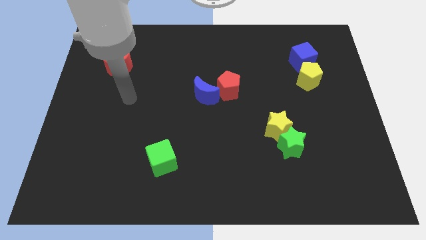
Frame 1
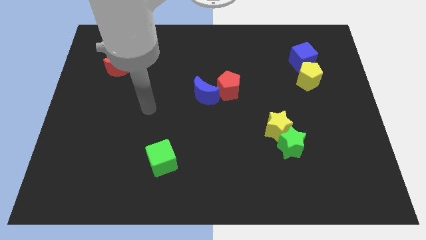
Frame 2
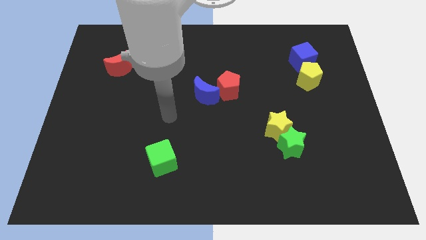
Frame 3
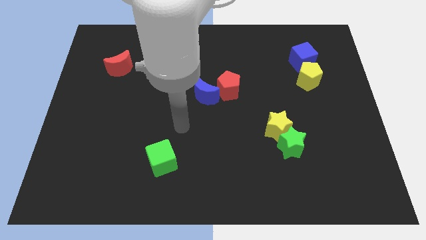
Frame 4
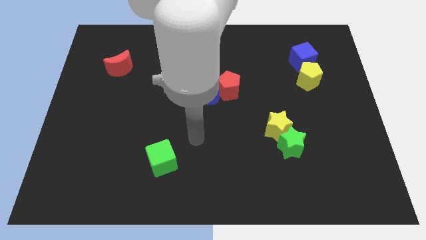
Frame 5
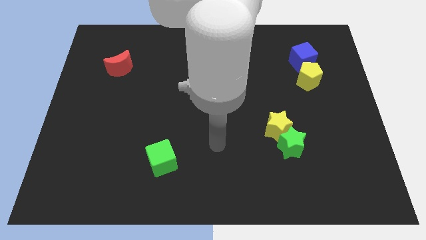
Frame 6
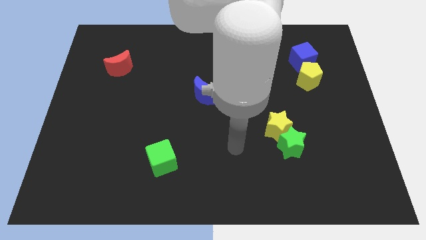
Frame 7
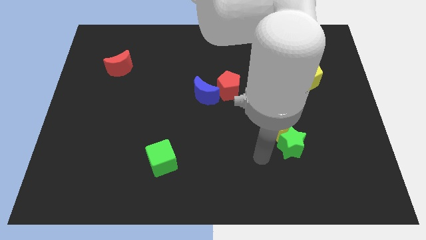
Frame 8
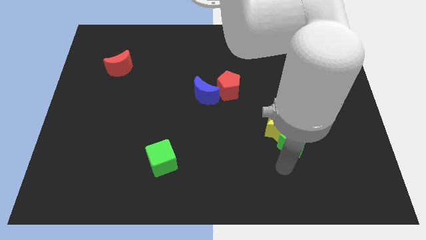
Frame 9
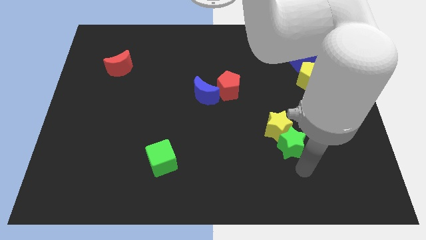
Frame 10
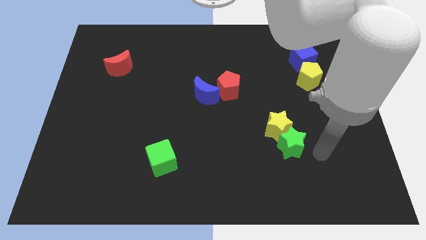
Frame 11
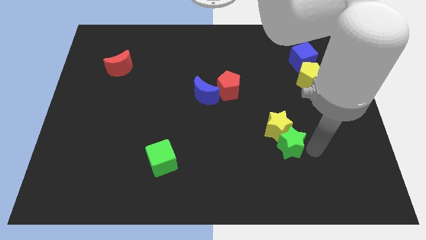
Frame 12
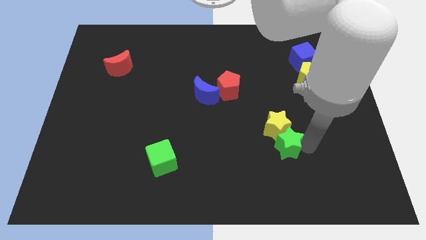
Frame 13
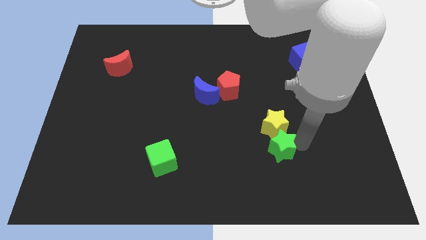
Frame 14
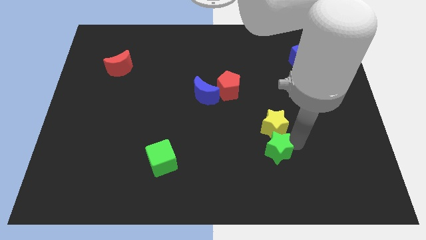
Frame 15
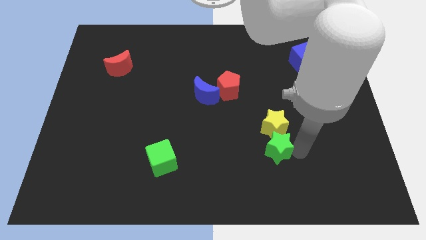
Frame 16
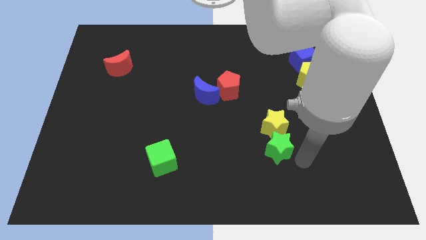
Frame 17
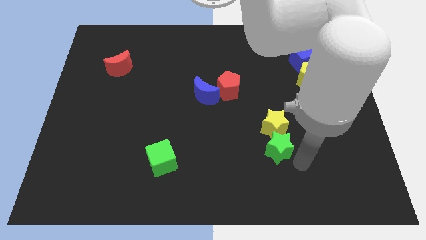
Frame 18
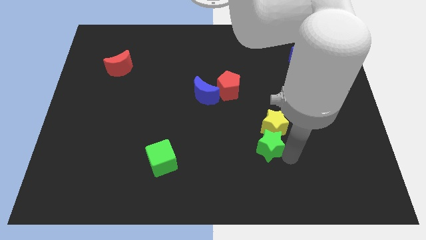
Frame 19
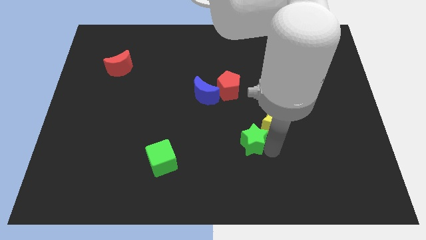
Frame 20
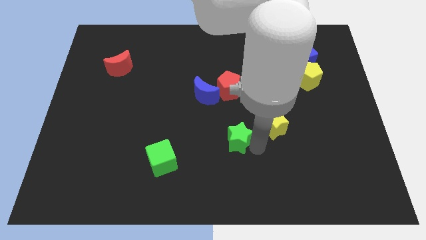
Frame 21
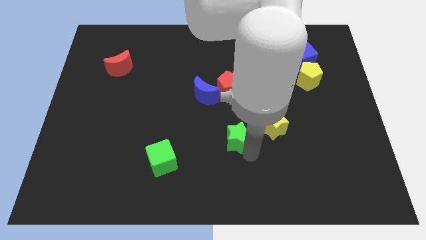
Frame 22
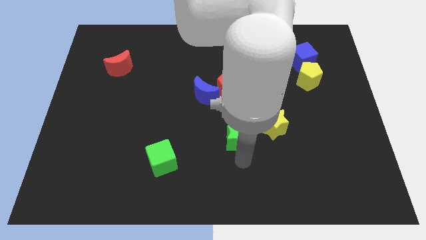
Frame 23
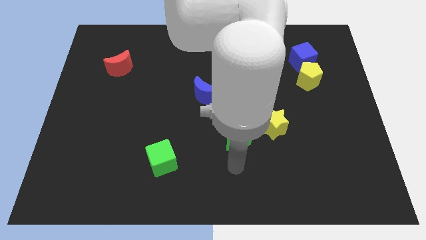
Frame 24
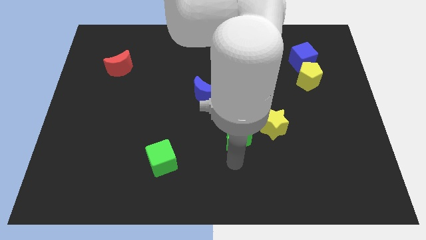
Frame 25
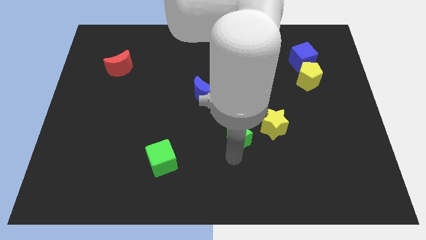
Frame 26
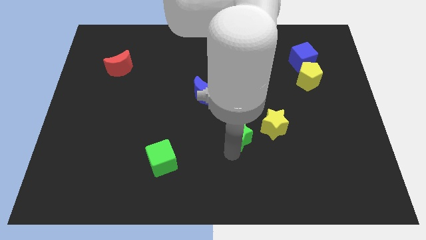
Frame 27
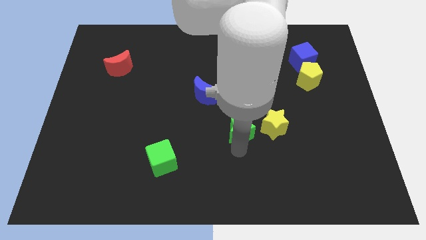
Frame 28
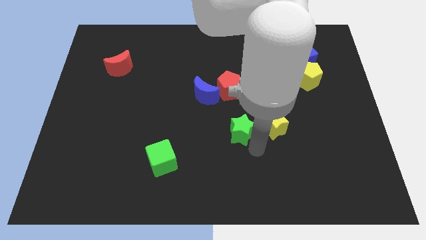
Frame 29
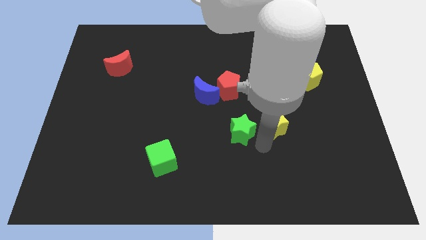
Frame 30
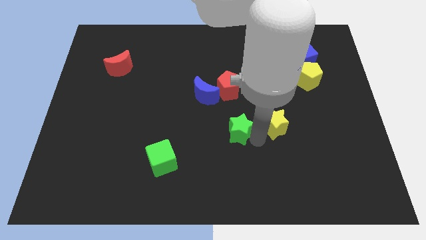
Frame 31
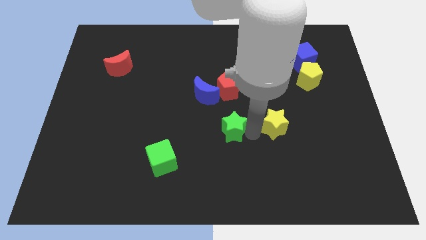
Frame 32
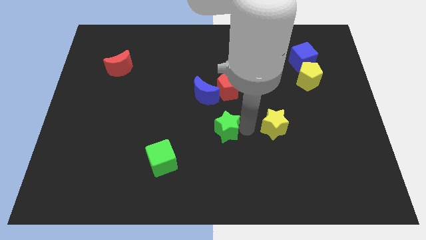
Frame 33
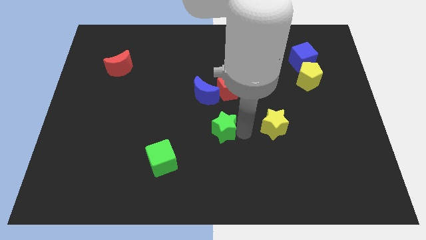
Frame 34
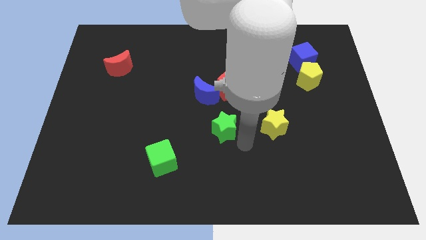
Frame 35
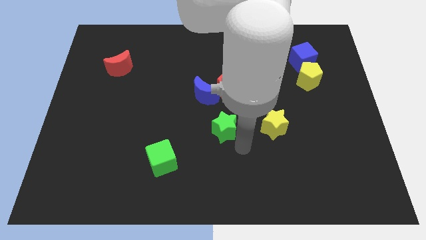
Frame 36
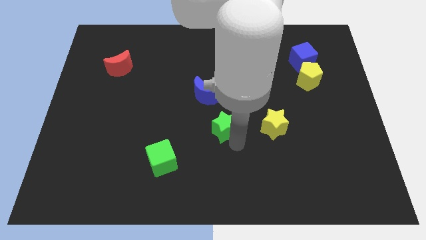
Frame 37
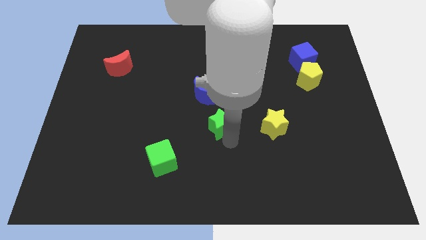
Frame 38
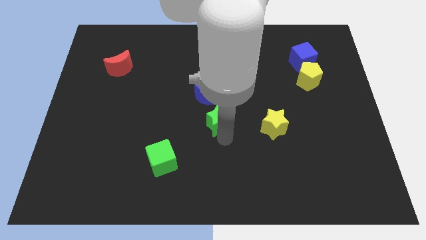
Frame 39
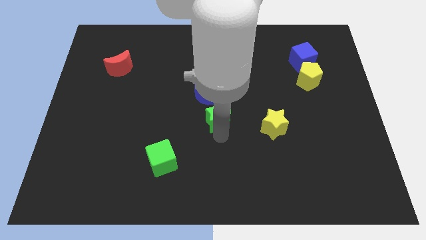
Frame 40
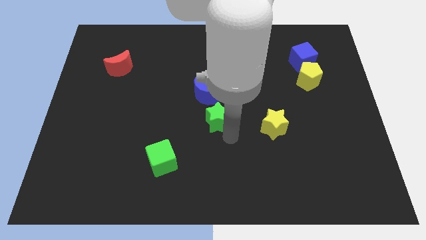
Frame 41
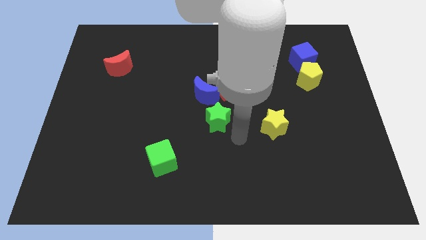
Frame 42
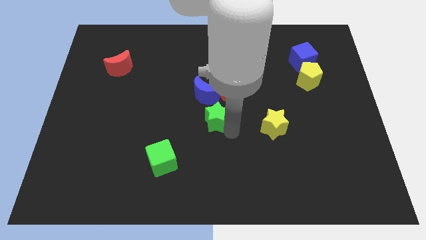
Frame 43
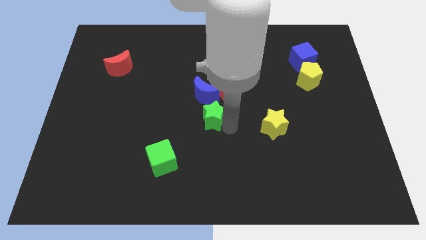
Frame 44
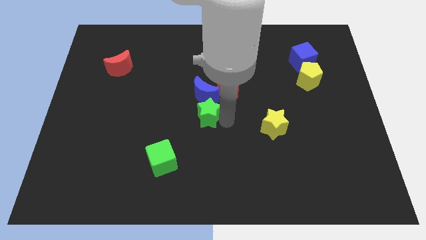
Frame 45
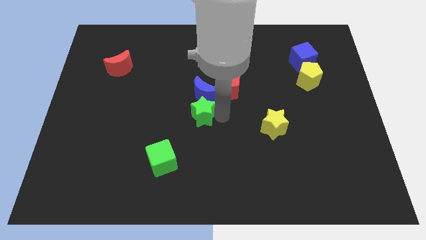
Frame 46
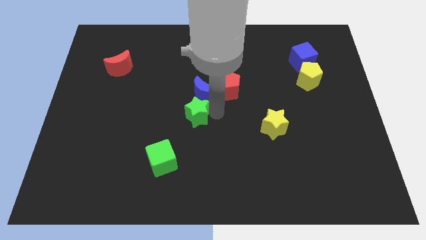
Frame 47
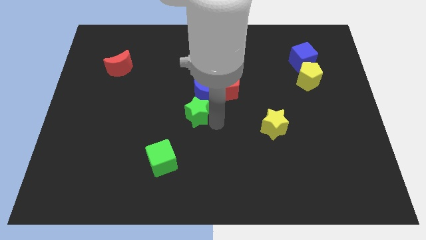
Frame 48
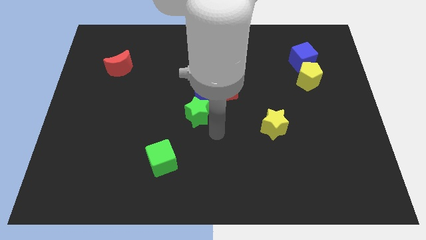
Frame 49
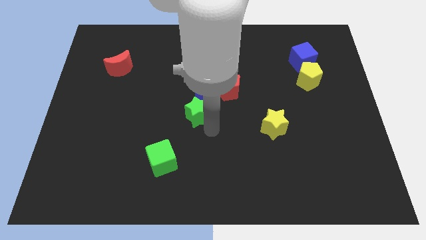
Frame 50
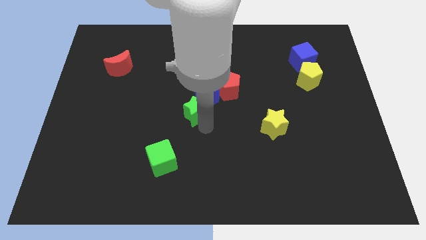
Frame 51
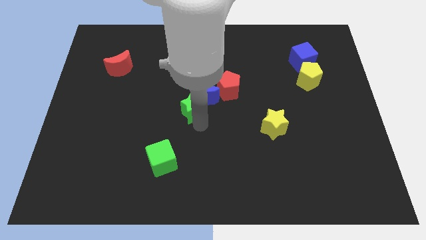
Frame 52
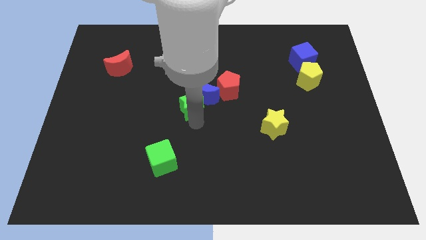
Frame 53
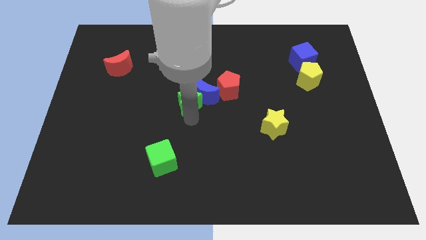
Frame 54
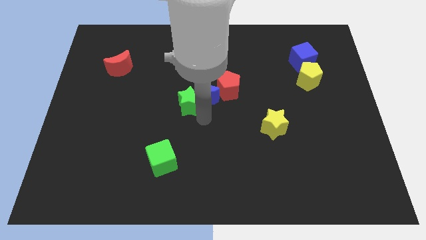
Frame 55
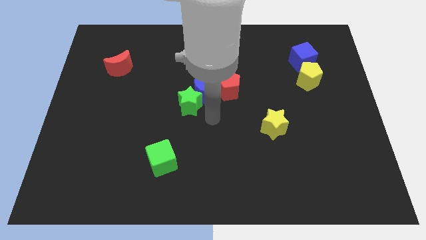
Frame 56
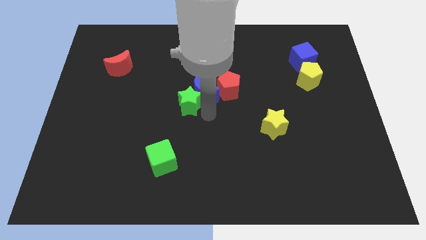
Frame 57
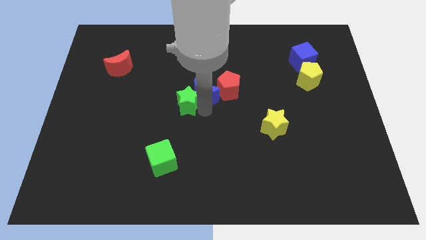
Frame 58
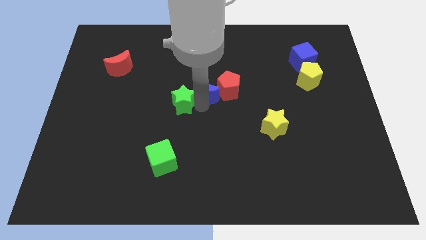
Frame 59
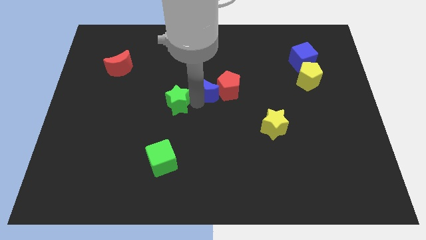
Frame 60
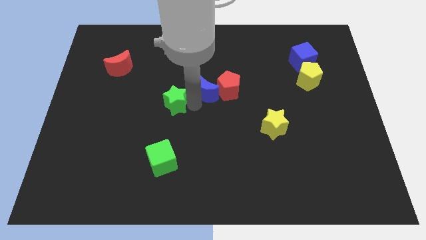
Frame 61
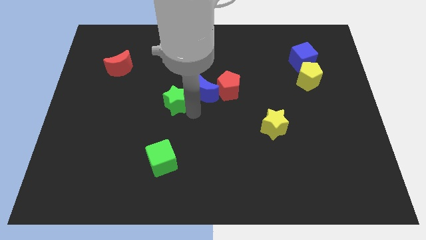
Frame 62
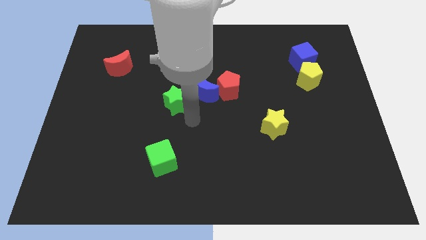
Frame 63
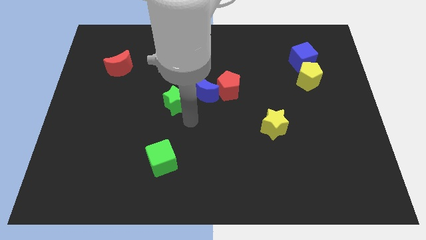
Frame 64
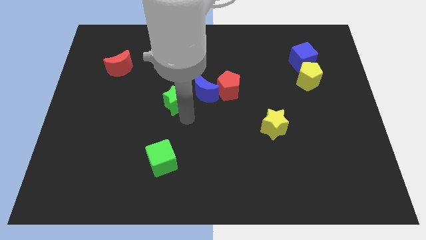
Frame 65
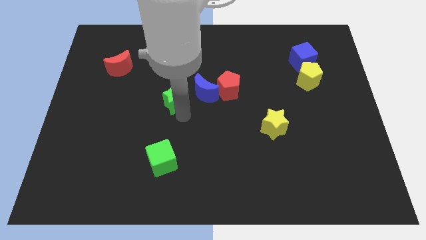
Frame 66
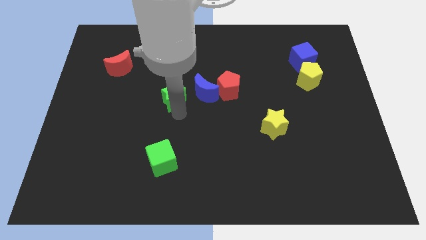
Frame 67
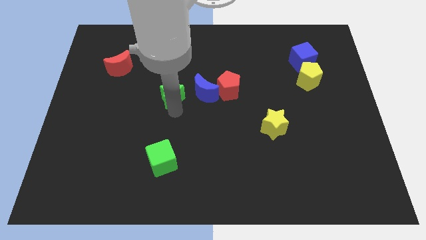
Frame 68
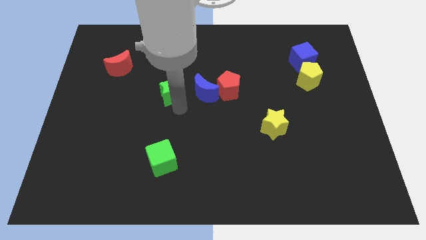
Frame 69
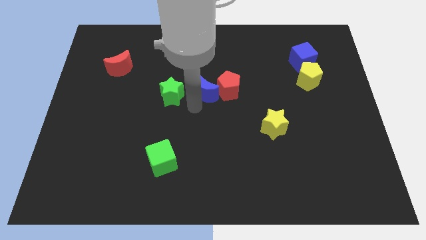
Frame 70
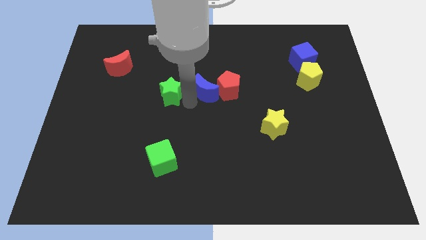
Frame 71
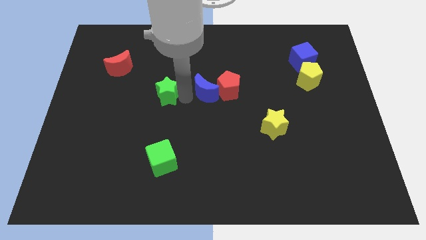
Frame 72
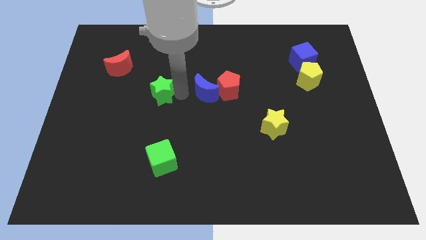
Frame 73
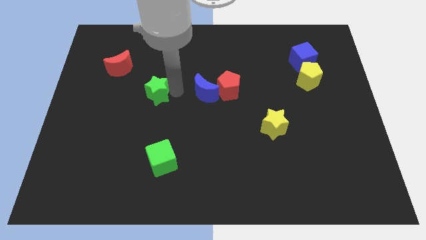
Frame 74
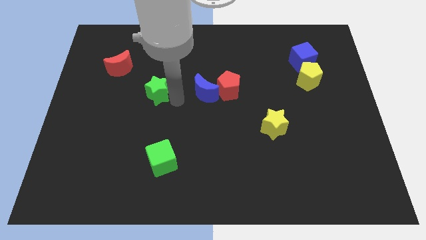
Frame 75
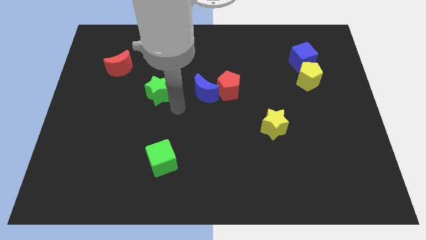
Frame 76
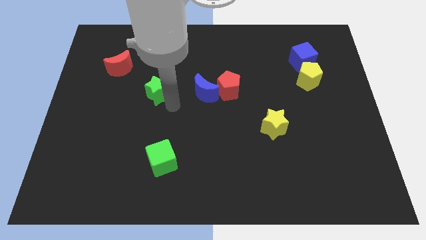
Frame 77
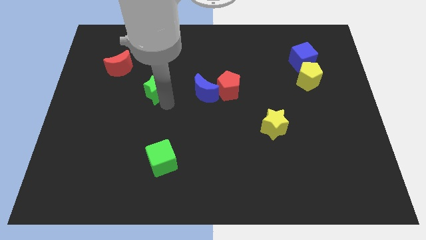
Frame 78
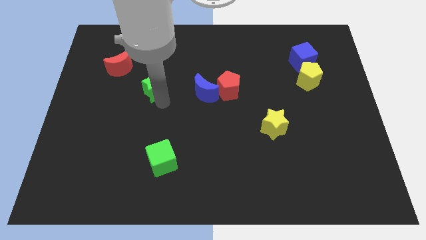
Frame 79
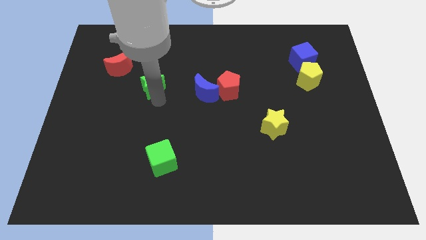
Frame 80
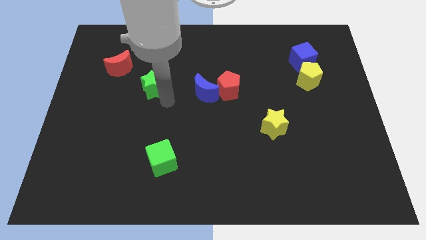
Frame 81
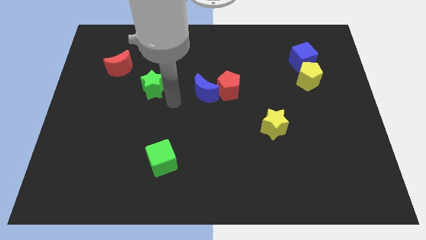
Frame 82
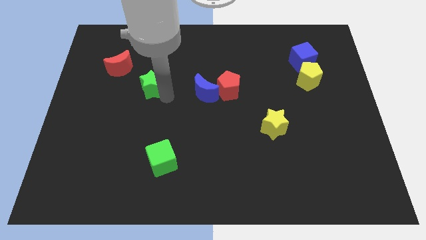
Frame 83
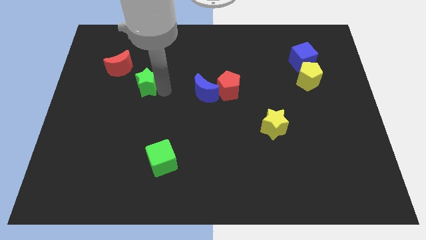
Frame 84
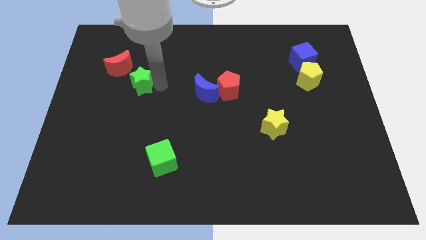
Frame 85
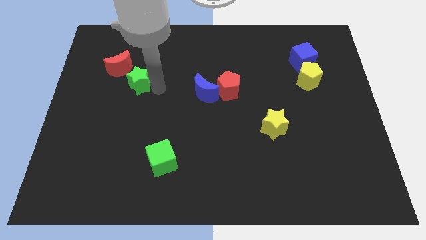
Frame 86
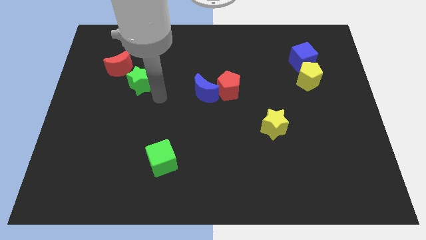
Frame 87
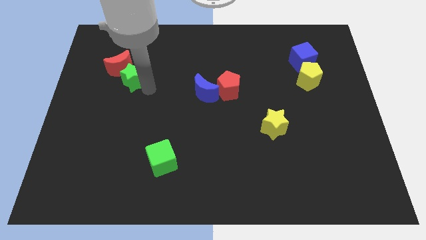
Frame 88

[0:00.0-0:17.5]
move the green star to the red moon
